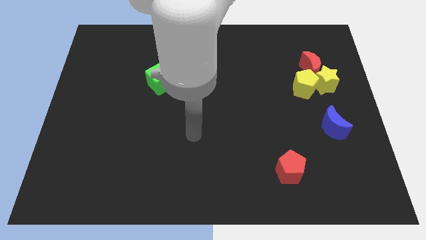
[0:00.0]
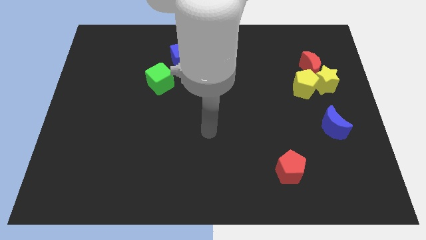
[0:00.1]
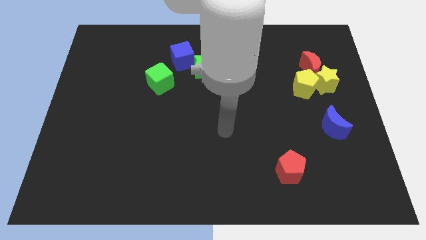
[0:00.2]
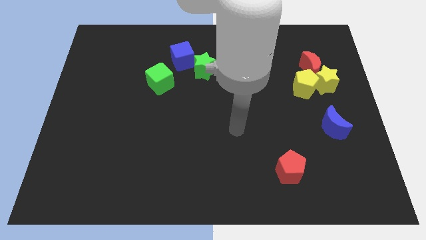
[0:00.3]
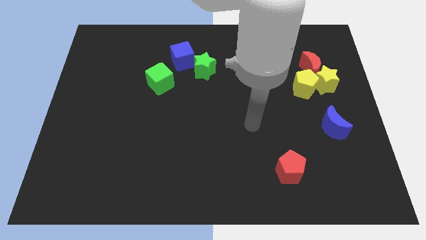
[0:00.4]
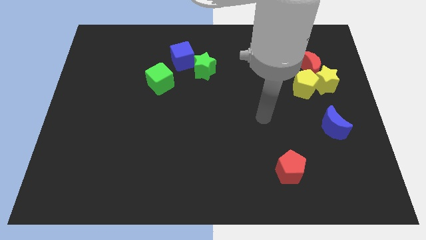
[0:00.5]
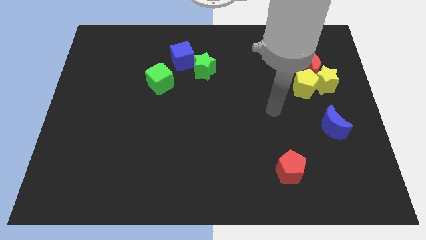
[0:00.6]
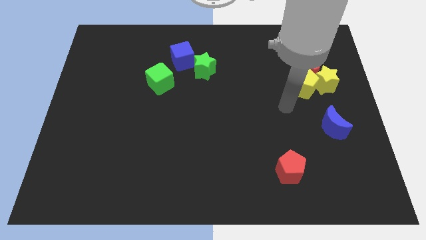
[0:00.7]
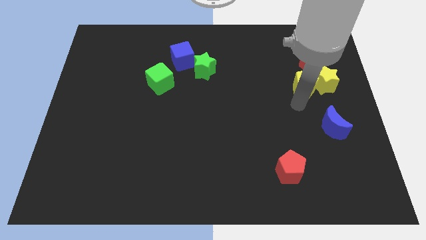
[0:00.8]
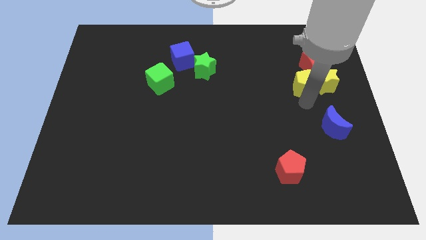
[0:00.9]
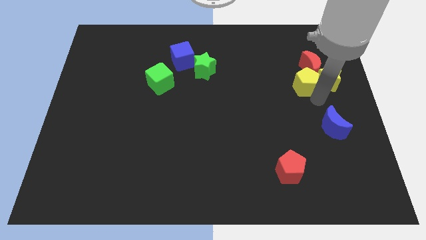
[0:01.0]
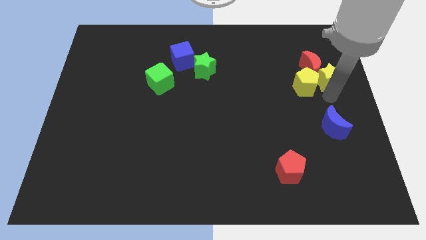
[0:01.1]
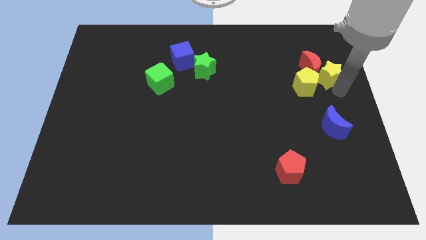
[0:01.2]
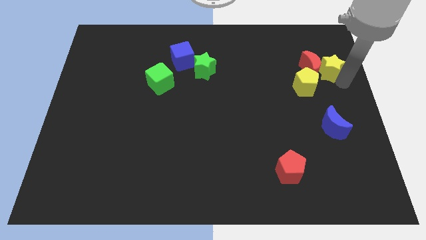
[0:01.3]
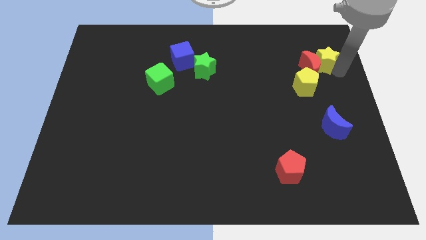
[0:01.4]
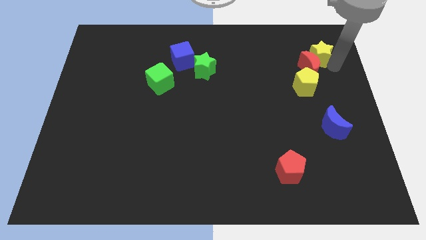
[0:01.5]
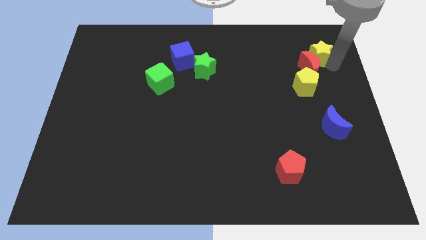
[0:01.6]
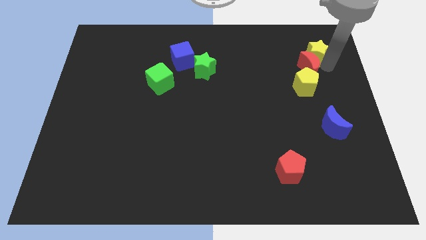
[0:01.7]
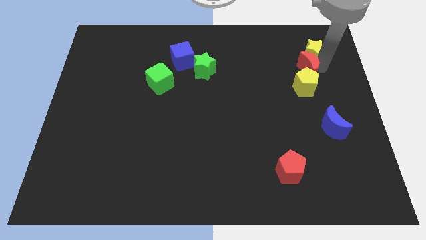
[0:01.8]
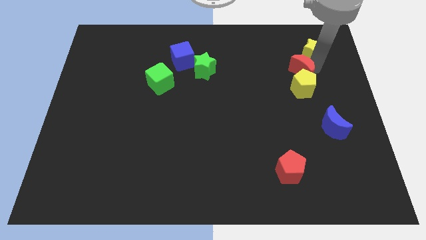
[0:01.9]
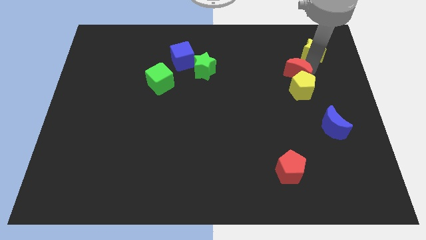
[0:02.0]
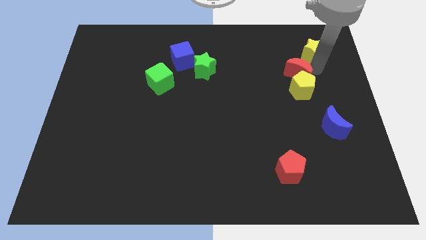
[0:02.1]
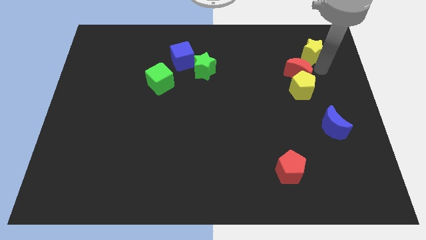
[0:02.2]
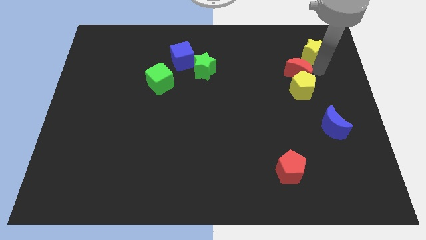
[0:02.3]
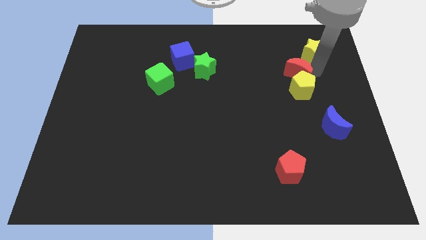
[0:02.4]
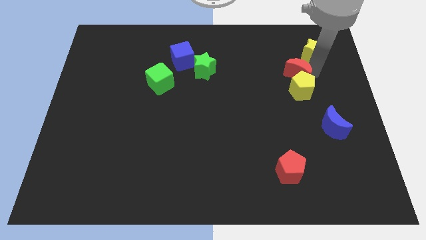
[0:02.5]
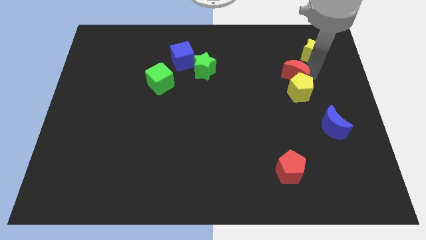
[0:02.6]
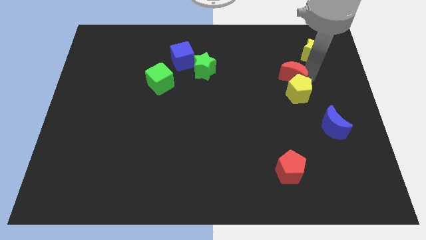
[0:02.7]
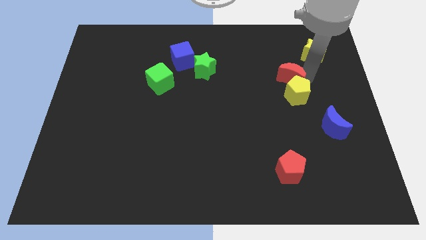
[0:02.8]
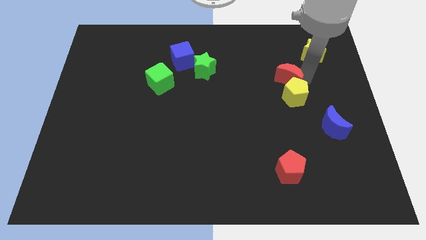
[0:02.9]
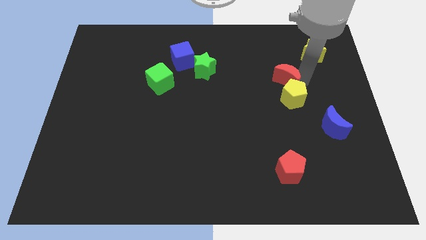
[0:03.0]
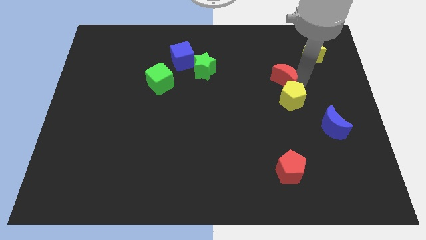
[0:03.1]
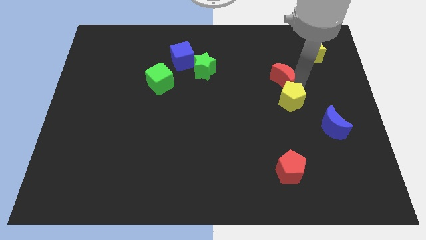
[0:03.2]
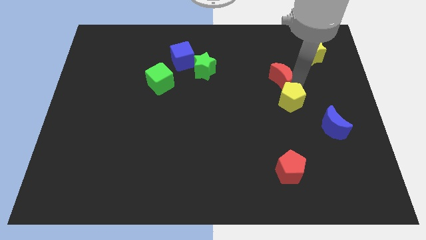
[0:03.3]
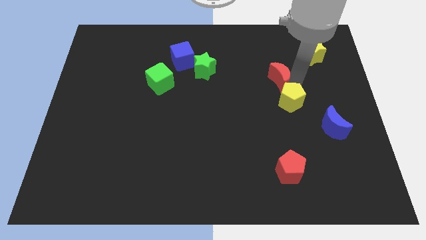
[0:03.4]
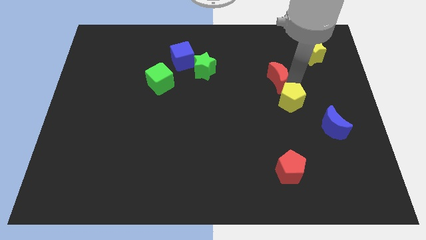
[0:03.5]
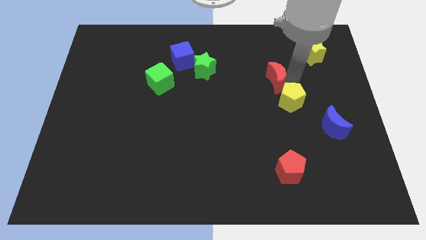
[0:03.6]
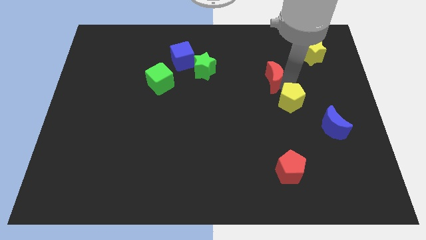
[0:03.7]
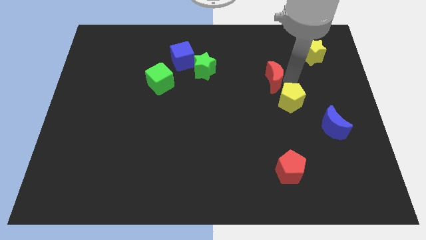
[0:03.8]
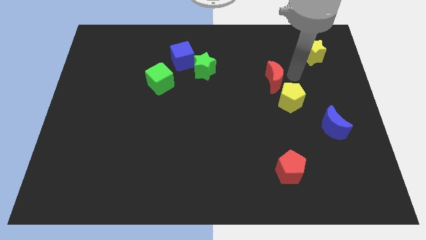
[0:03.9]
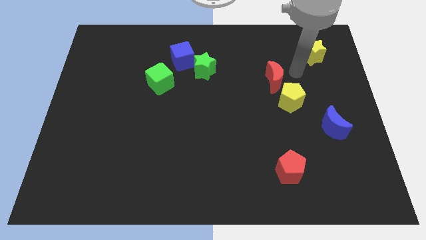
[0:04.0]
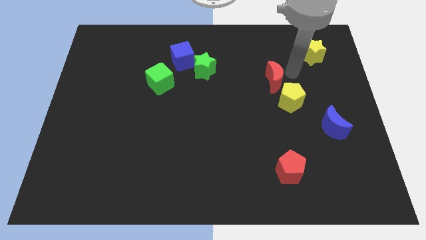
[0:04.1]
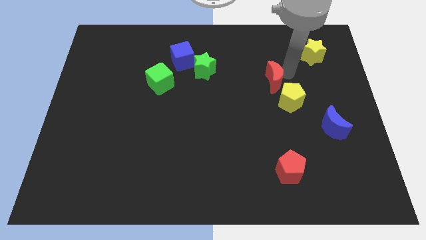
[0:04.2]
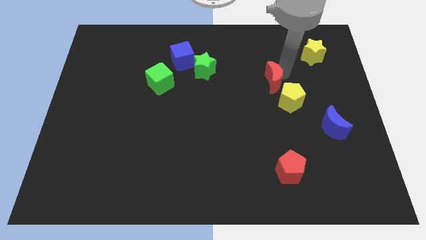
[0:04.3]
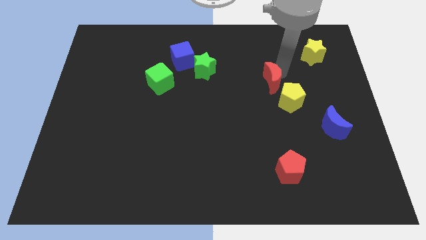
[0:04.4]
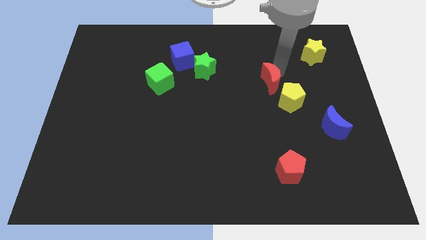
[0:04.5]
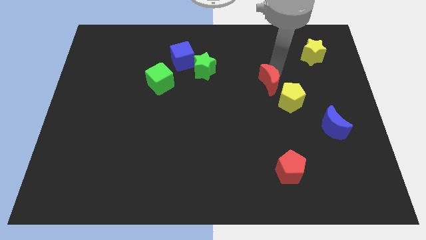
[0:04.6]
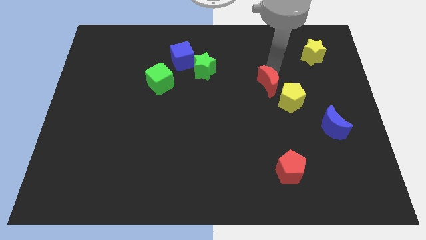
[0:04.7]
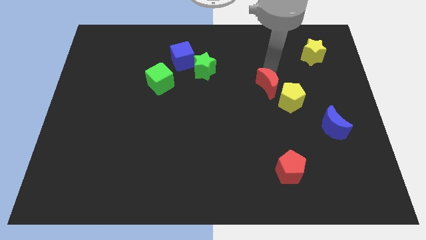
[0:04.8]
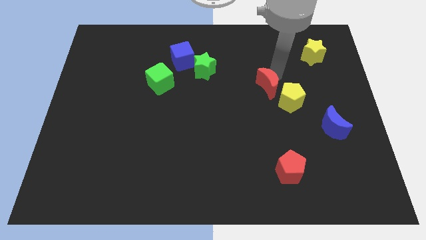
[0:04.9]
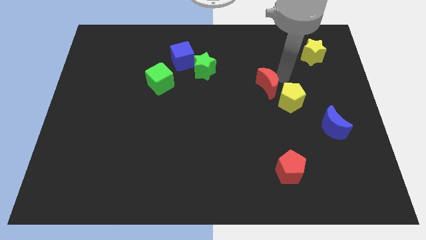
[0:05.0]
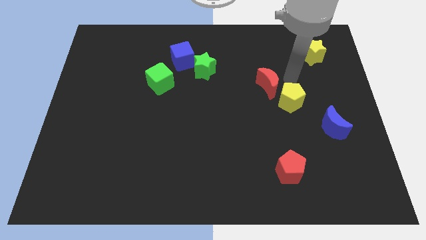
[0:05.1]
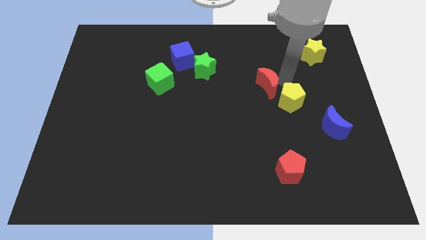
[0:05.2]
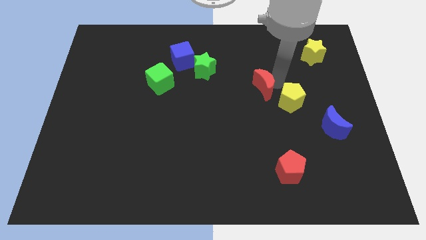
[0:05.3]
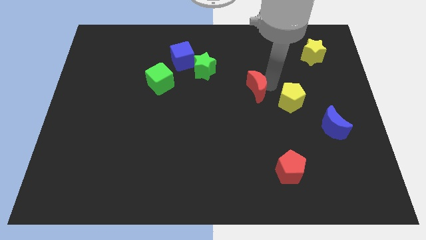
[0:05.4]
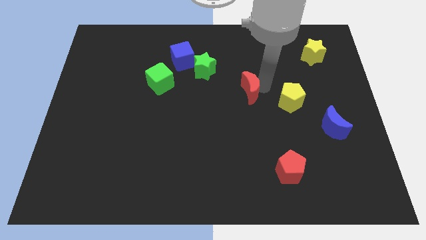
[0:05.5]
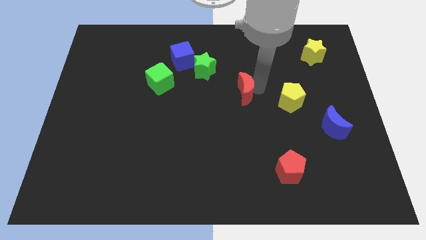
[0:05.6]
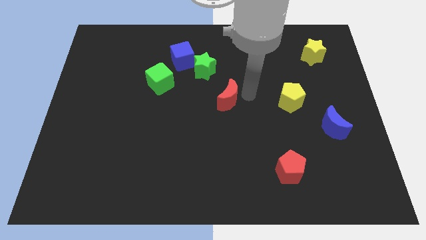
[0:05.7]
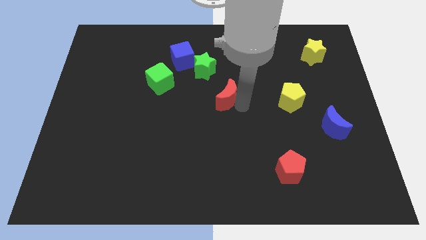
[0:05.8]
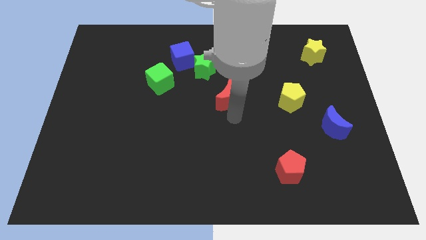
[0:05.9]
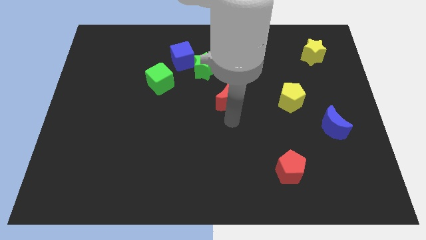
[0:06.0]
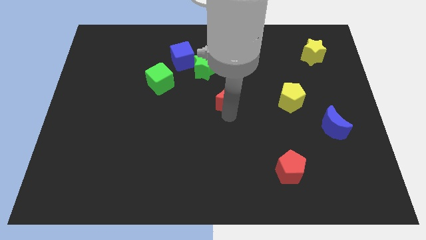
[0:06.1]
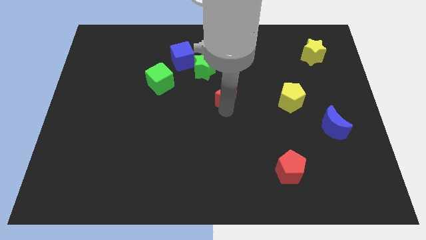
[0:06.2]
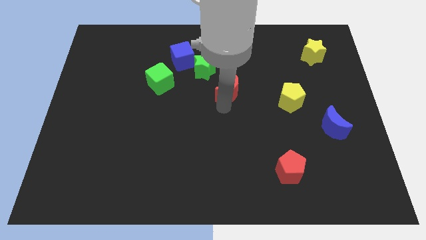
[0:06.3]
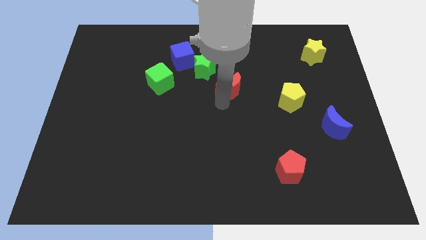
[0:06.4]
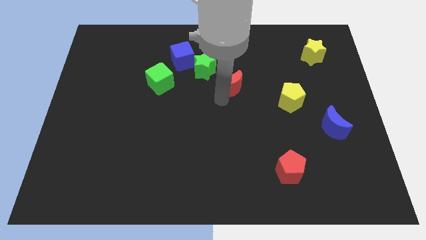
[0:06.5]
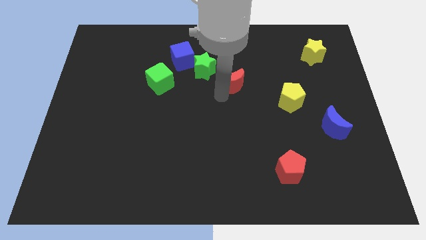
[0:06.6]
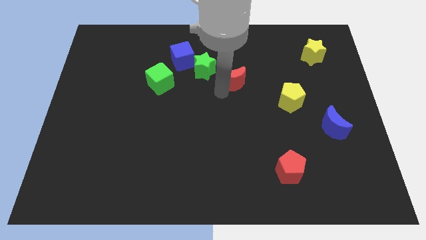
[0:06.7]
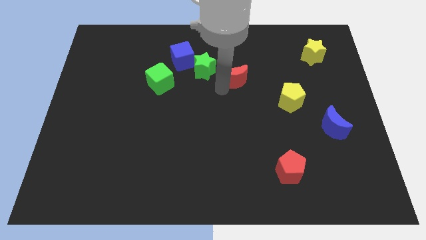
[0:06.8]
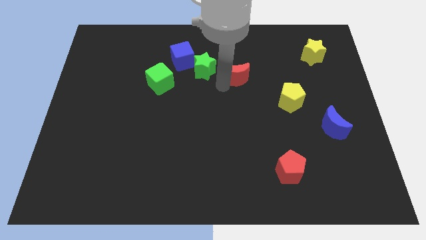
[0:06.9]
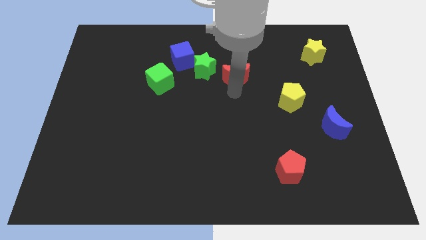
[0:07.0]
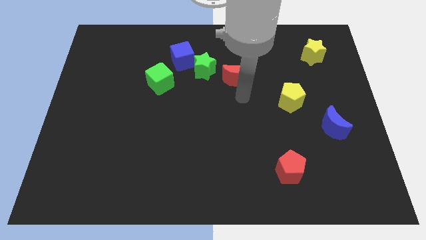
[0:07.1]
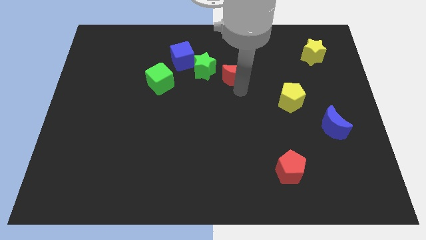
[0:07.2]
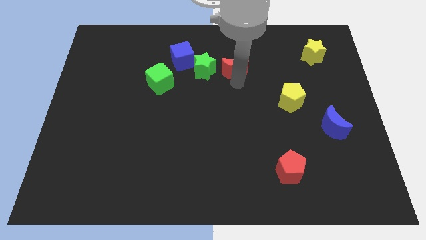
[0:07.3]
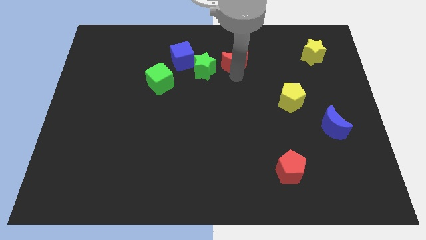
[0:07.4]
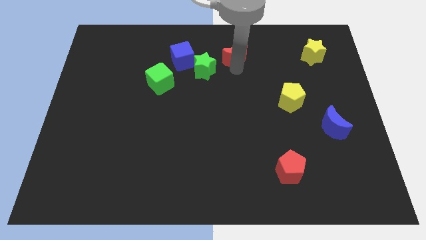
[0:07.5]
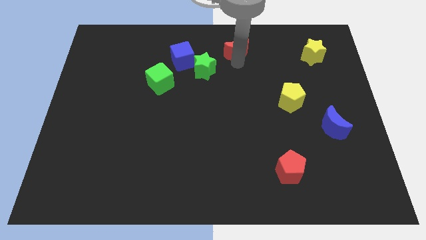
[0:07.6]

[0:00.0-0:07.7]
push the red moon to the towards your base
